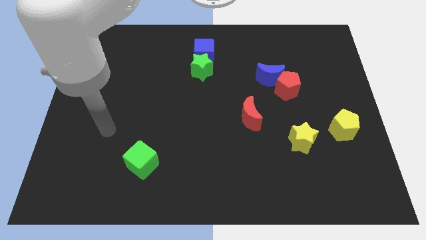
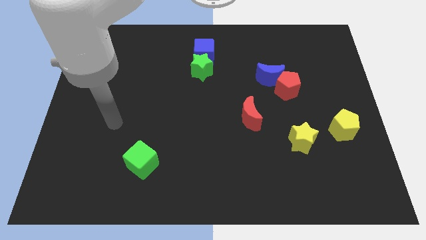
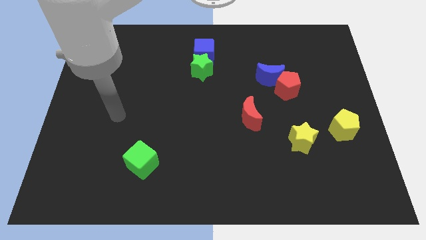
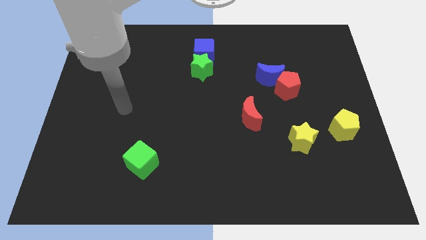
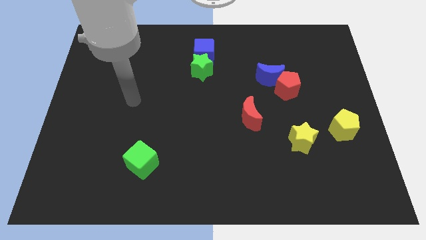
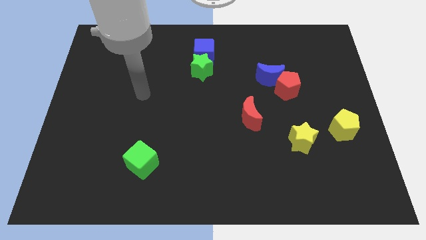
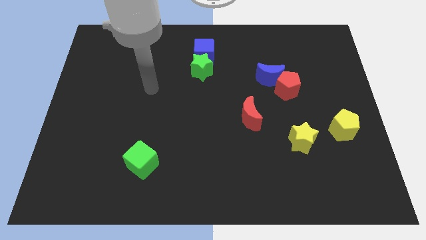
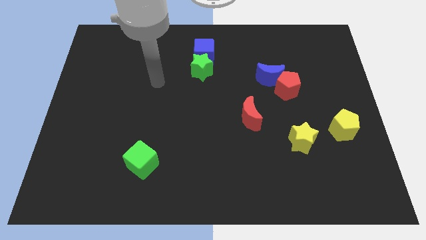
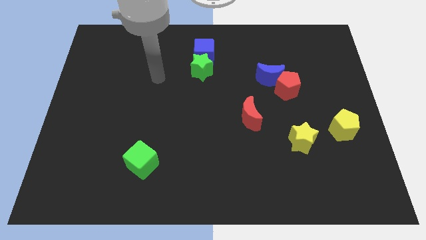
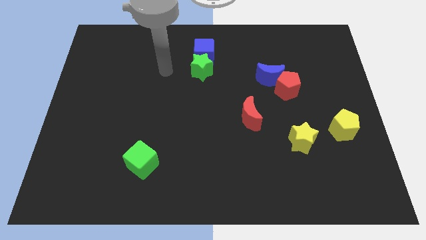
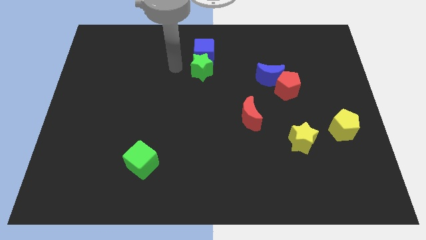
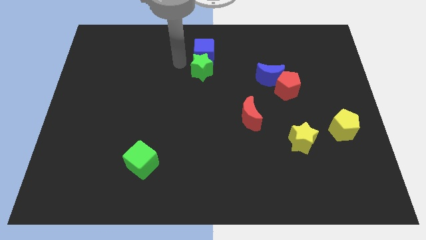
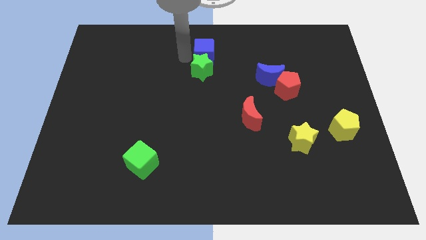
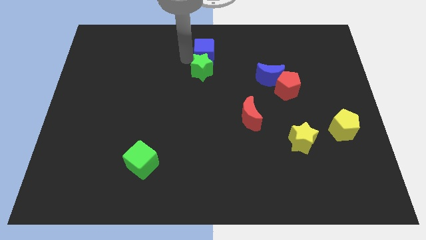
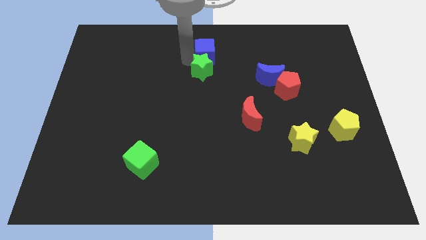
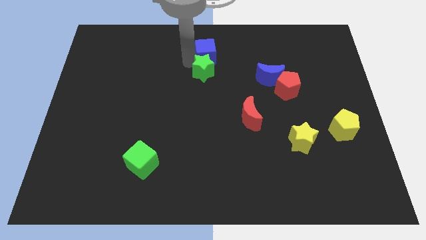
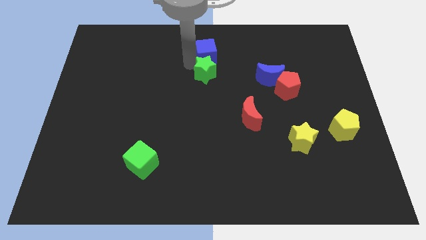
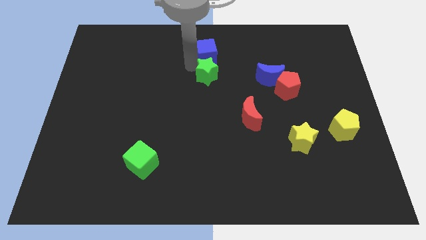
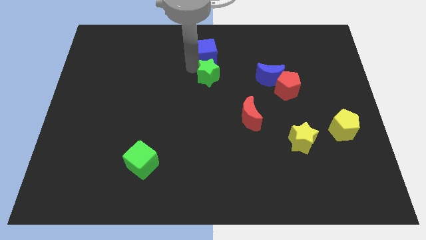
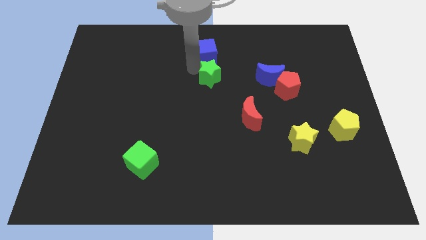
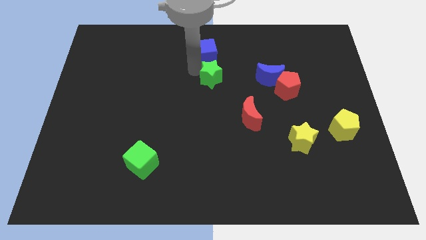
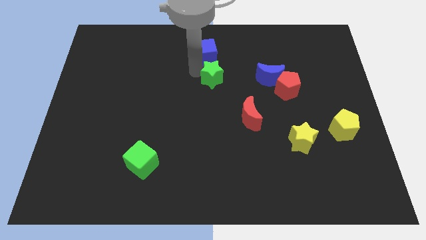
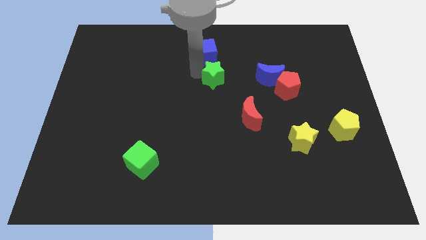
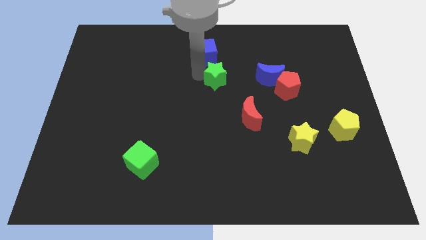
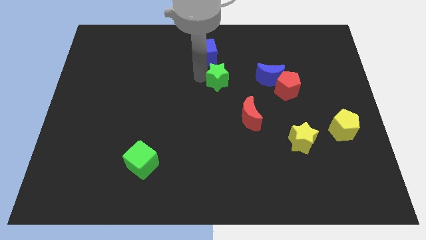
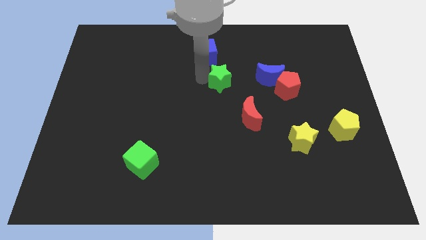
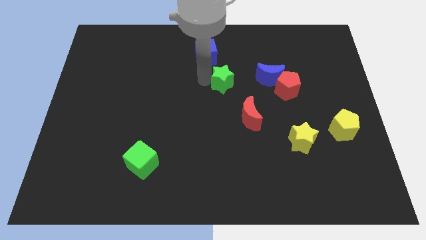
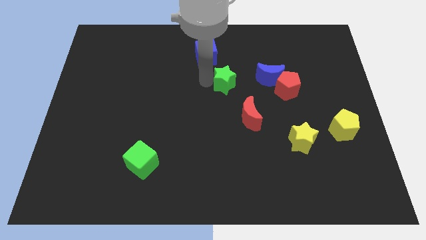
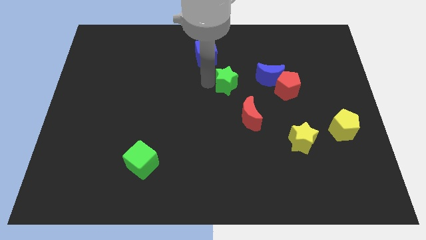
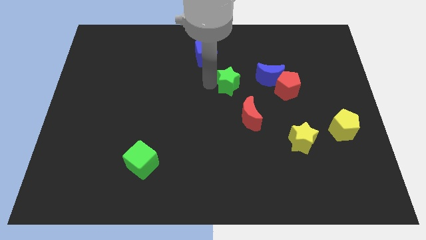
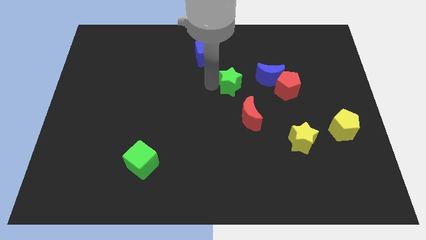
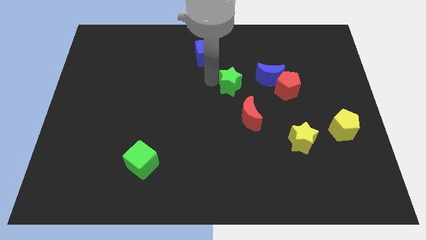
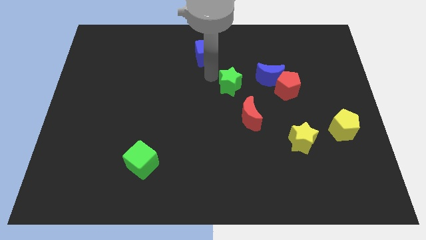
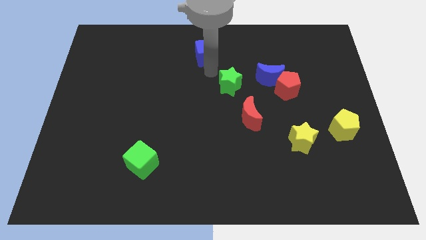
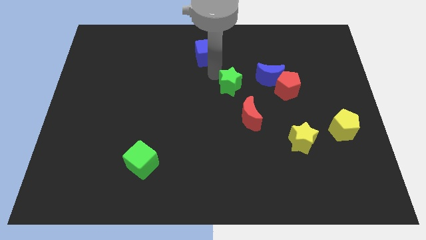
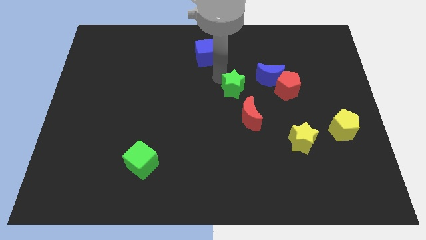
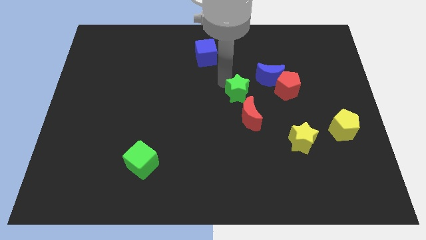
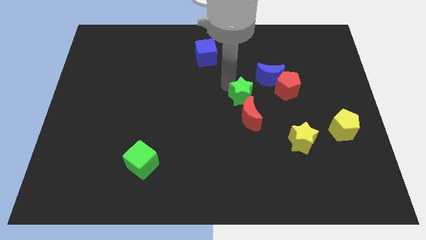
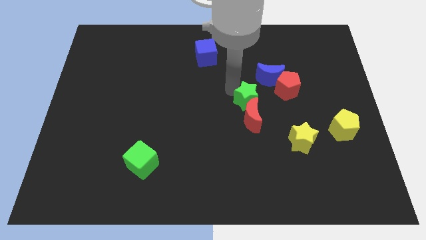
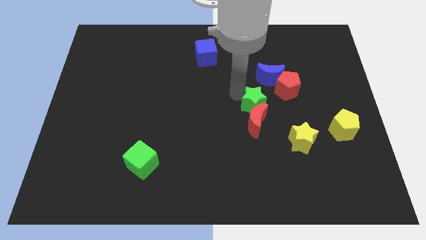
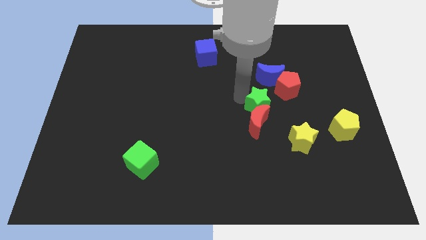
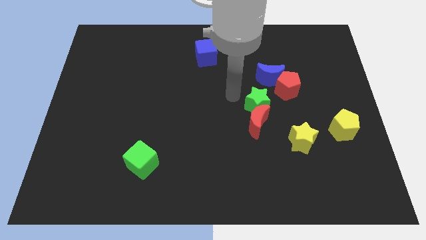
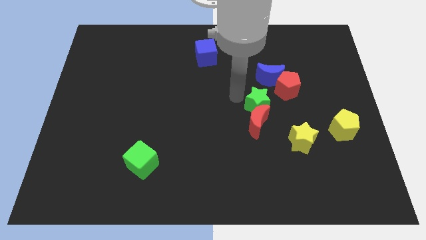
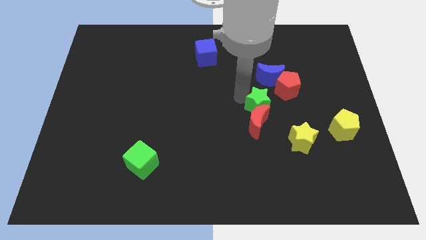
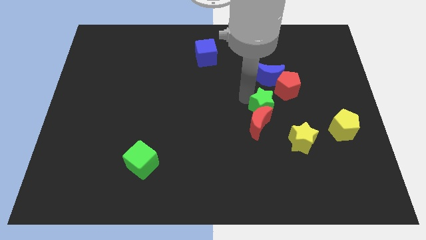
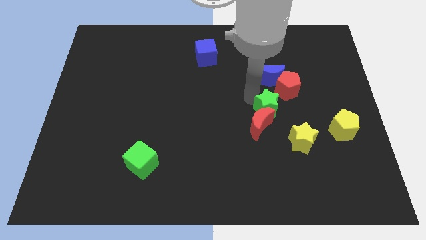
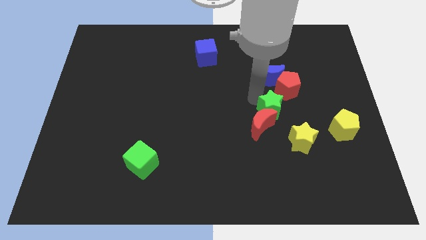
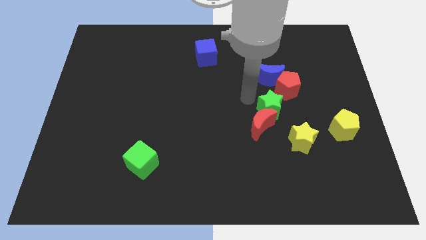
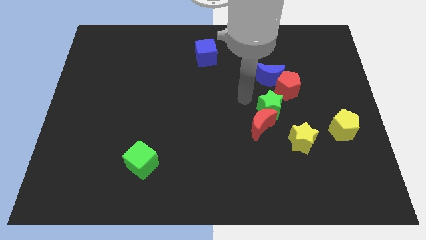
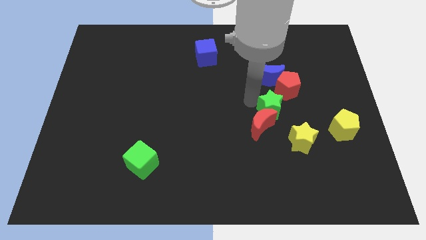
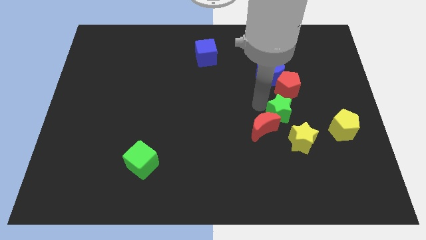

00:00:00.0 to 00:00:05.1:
put the green star right of the red moon

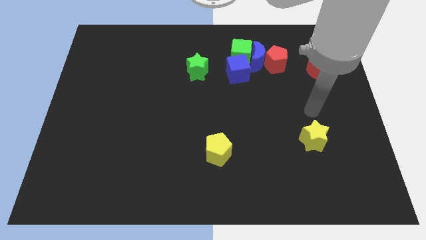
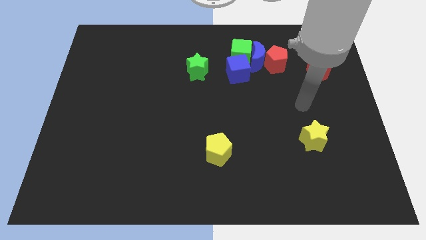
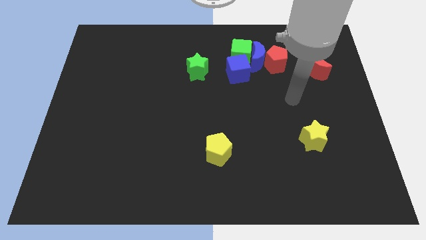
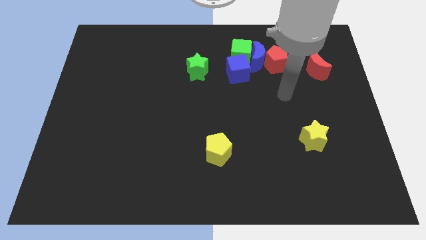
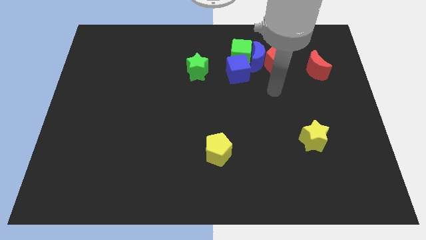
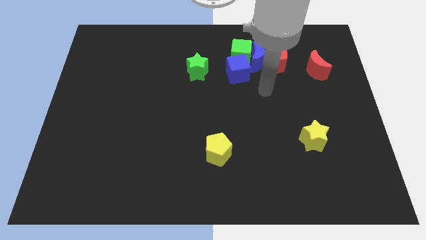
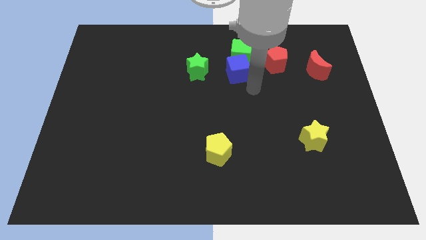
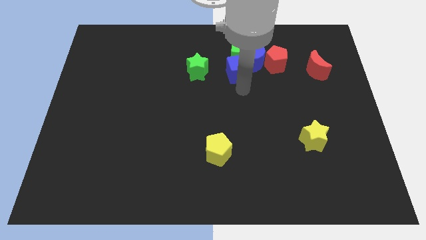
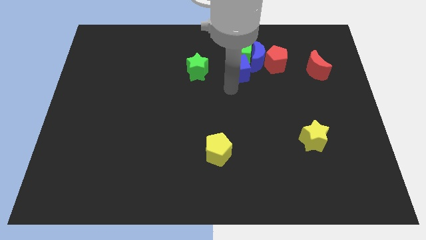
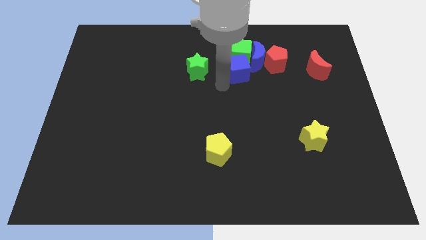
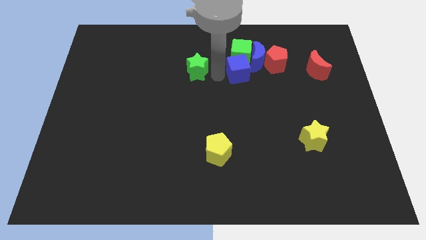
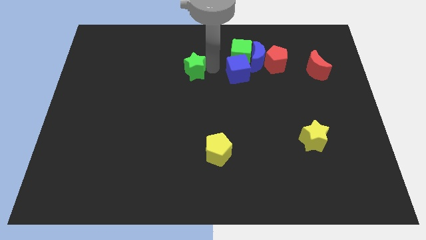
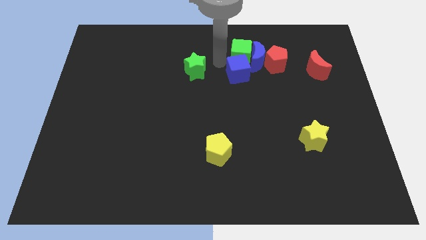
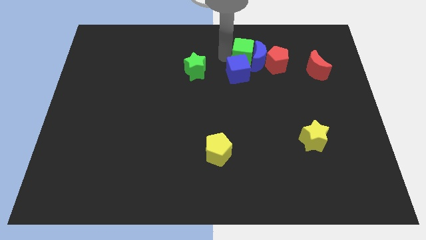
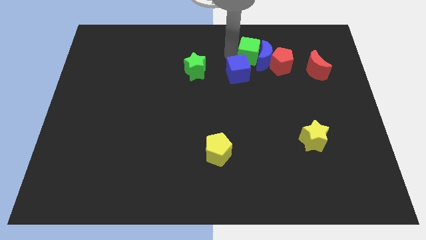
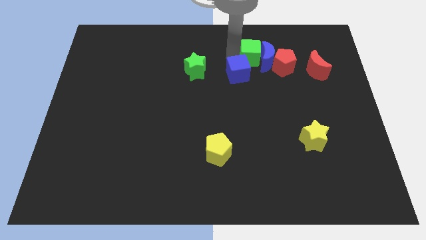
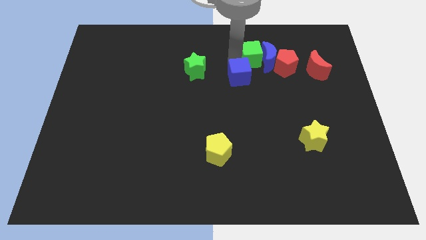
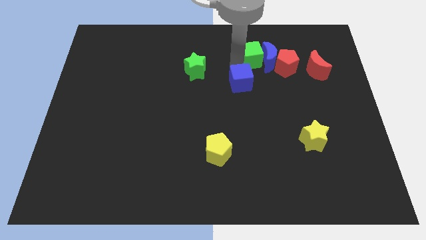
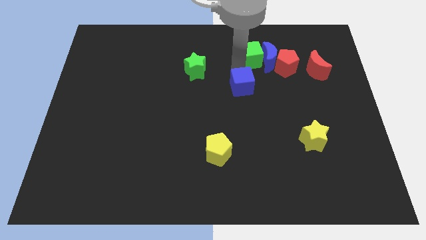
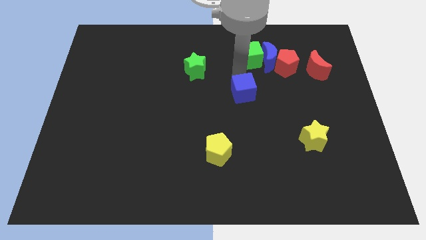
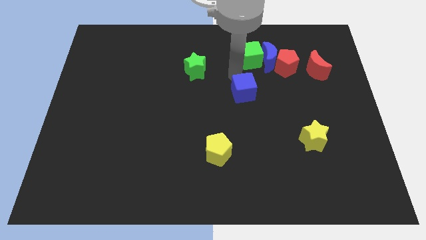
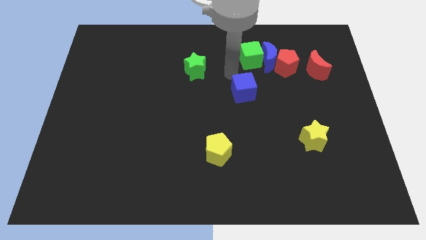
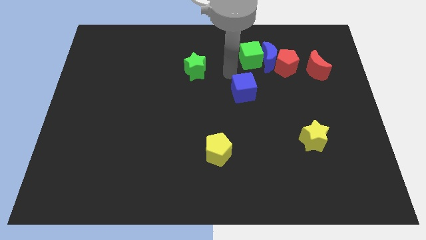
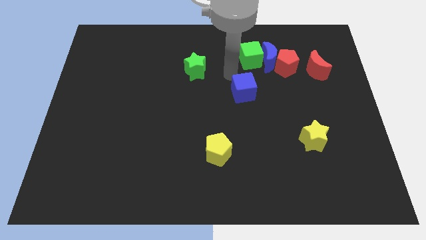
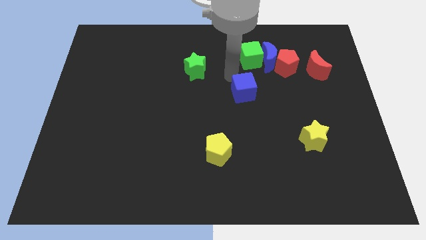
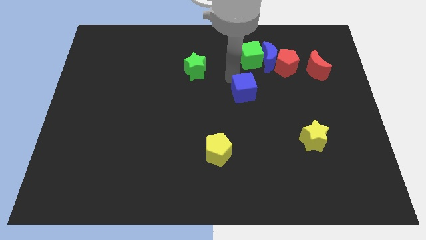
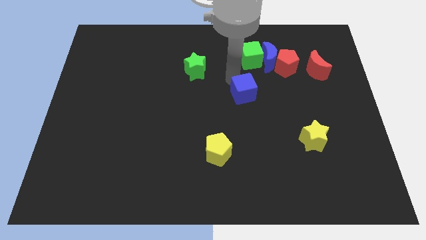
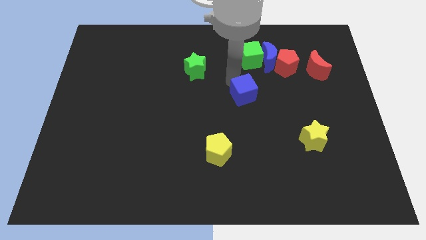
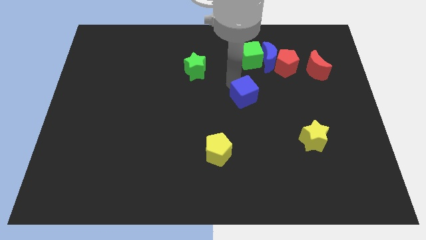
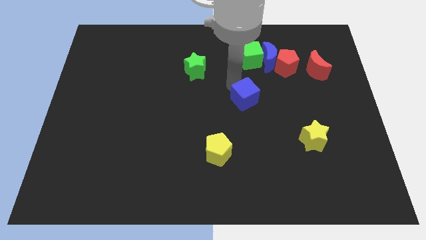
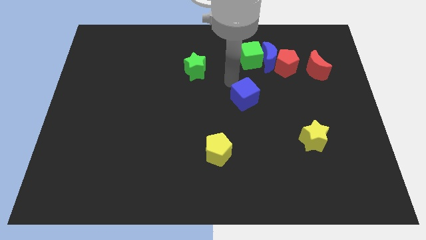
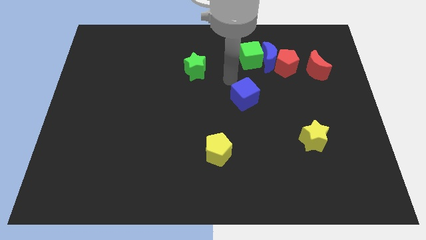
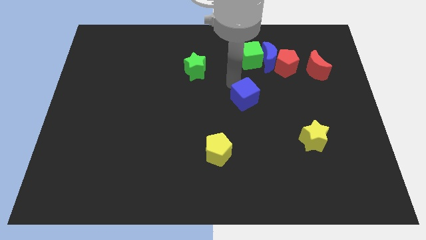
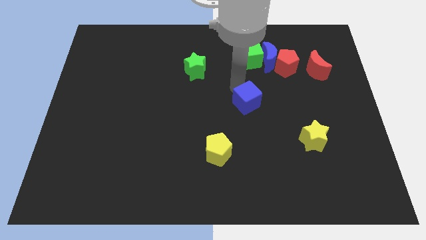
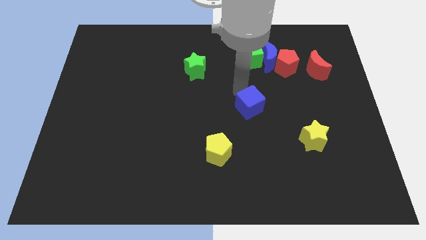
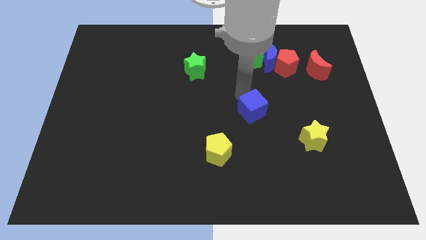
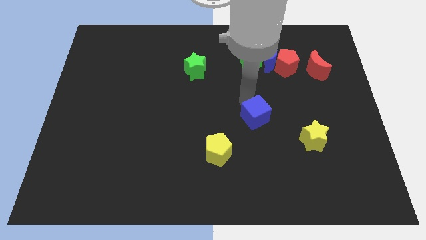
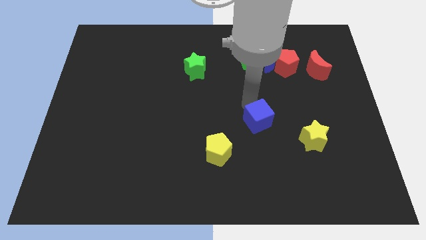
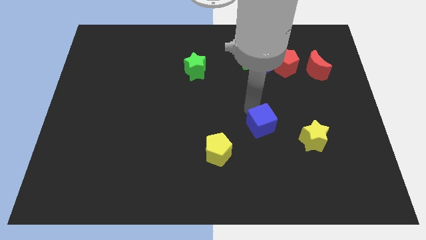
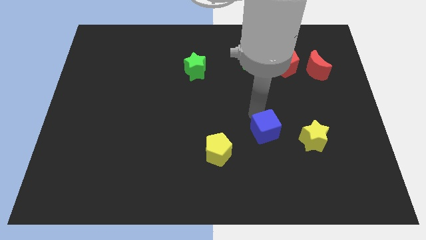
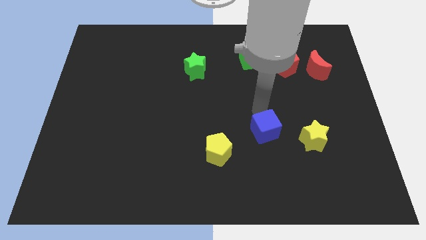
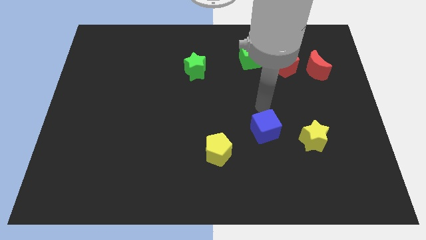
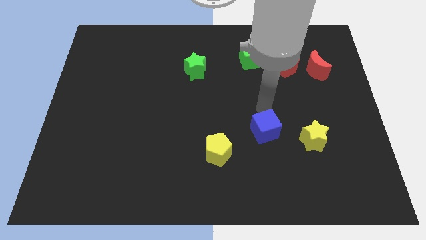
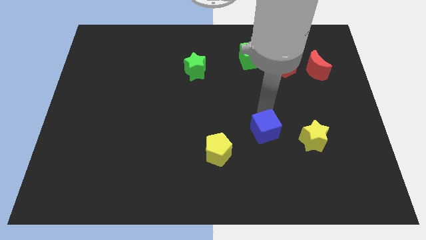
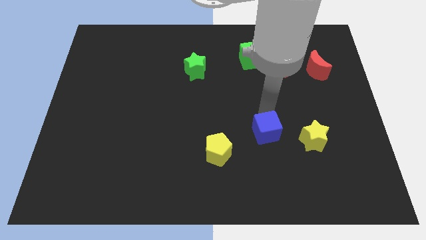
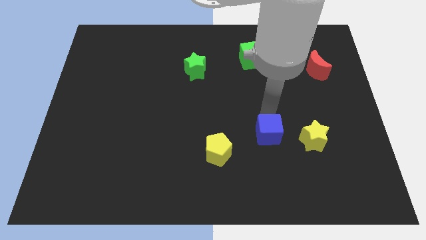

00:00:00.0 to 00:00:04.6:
push the blue cube just right of the yellow pentagon
